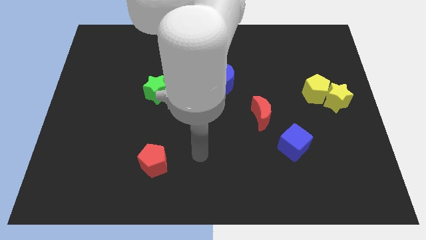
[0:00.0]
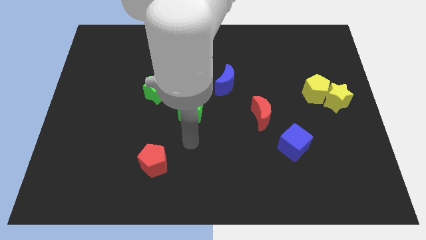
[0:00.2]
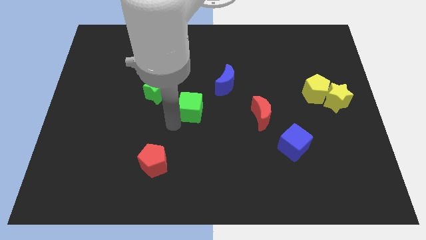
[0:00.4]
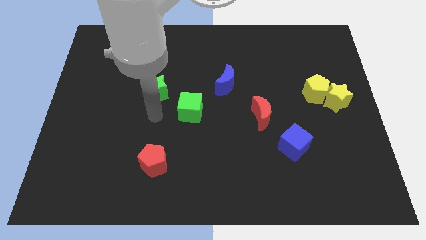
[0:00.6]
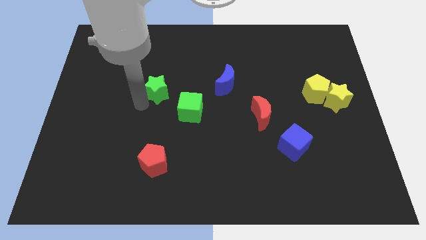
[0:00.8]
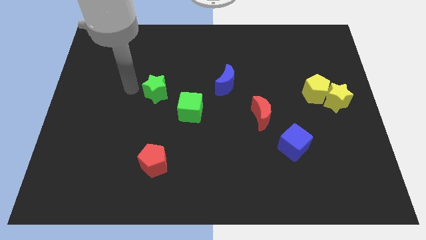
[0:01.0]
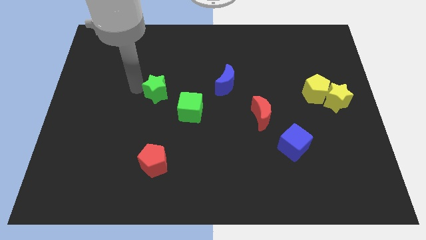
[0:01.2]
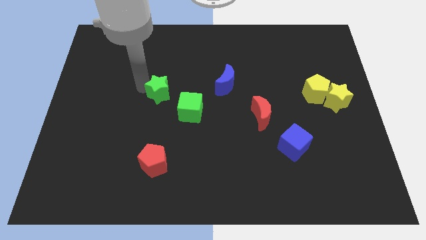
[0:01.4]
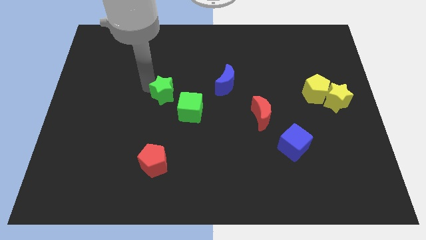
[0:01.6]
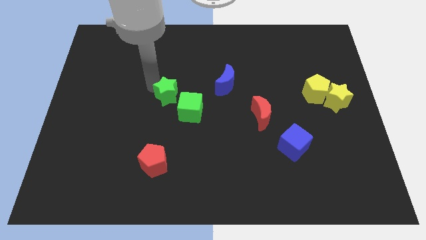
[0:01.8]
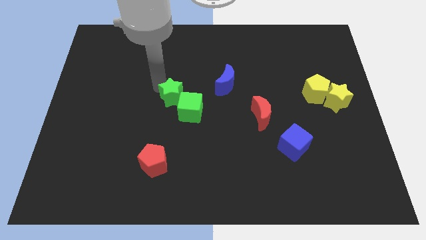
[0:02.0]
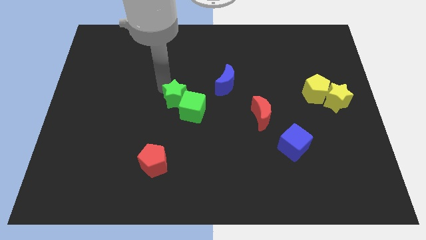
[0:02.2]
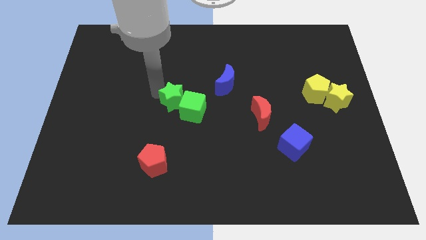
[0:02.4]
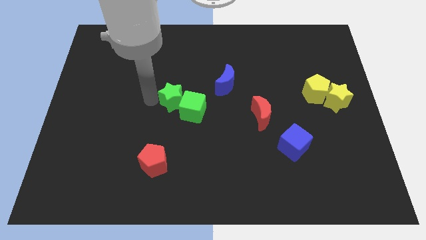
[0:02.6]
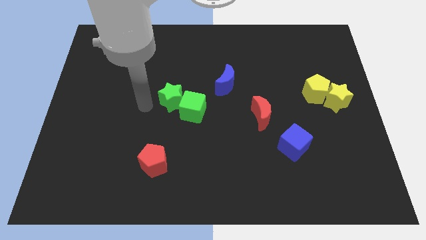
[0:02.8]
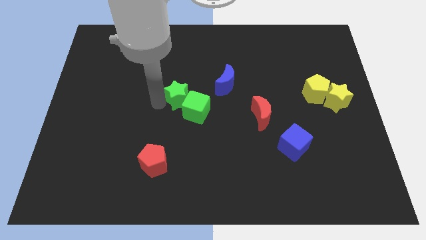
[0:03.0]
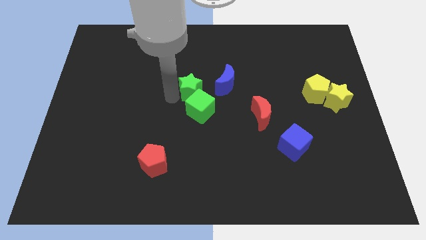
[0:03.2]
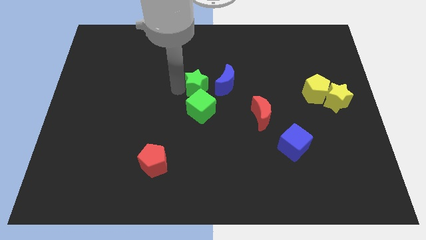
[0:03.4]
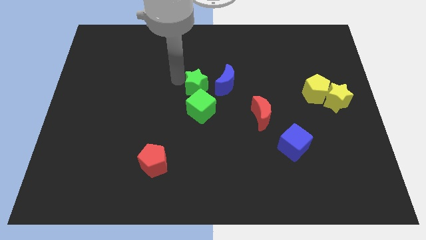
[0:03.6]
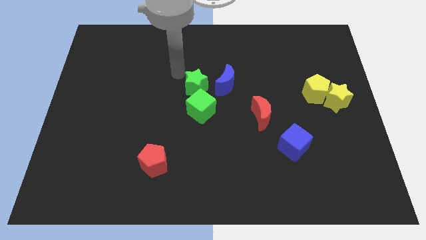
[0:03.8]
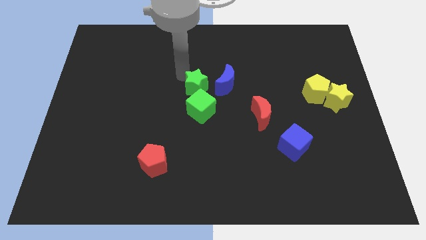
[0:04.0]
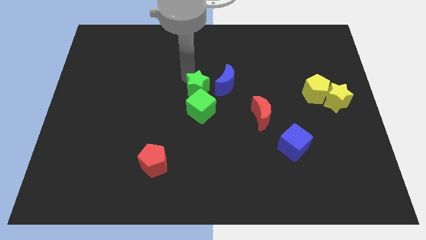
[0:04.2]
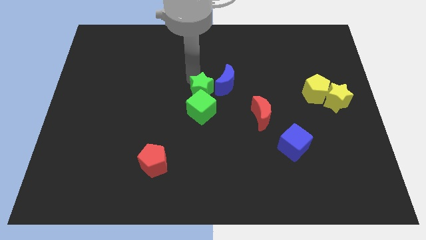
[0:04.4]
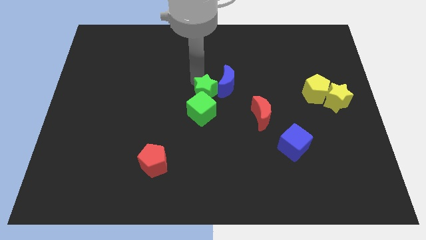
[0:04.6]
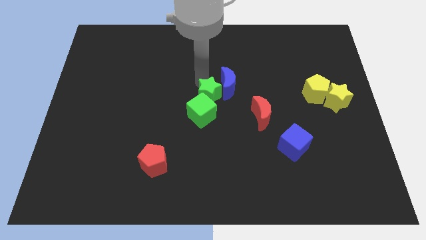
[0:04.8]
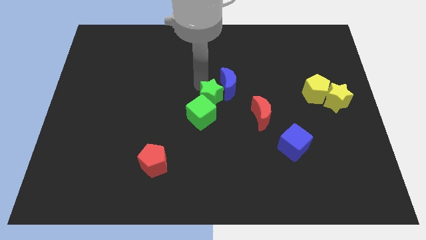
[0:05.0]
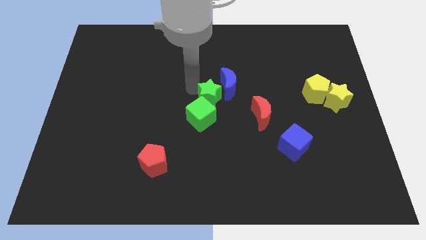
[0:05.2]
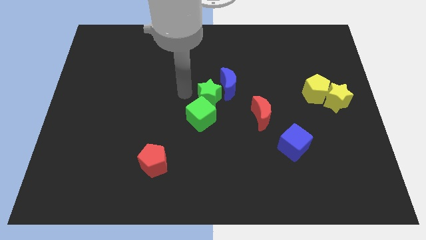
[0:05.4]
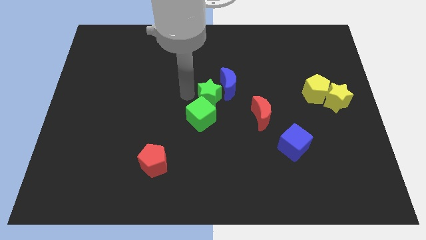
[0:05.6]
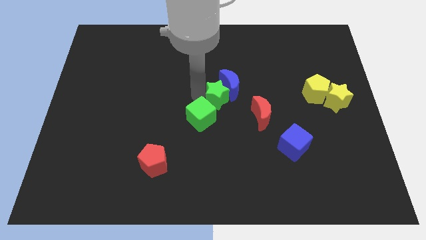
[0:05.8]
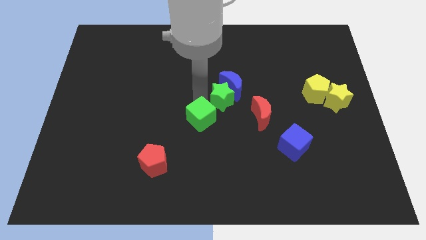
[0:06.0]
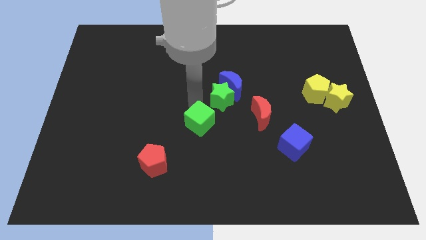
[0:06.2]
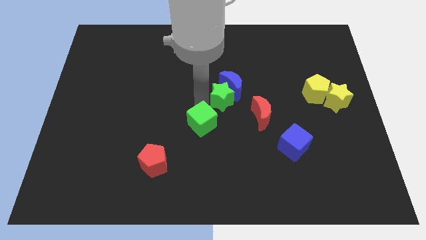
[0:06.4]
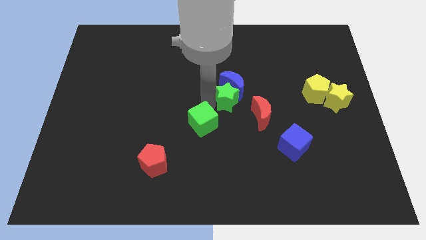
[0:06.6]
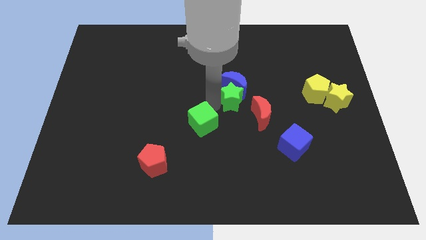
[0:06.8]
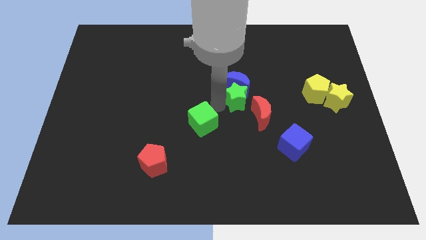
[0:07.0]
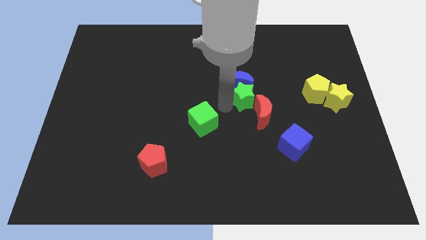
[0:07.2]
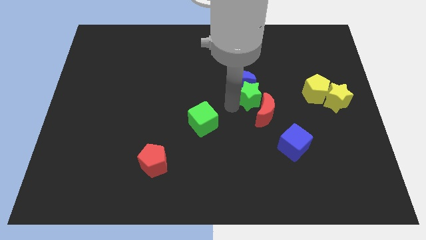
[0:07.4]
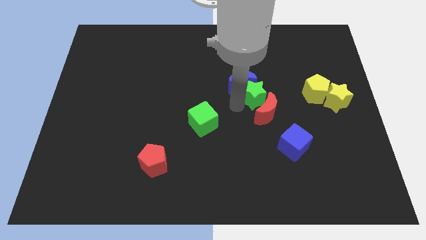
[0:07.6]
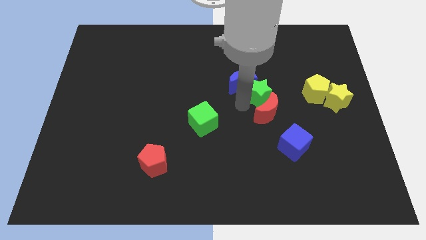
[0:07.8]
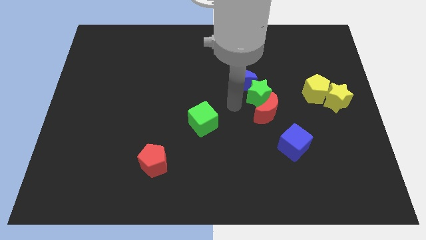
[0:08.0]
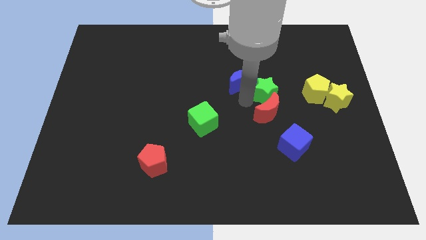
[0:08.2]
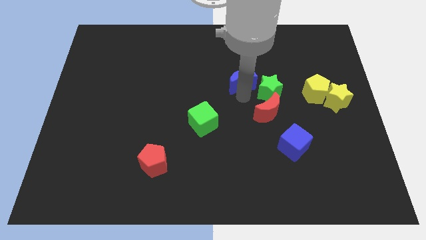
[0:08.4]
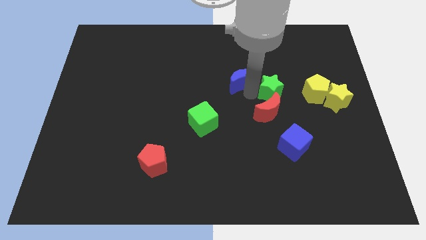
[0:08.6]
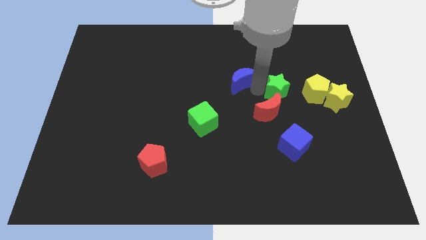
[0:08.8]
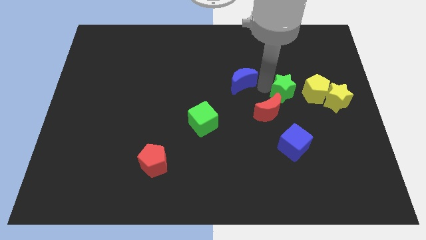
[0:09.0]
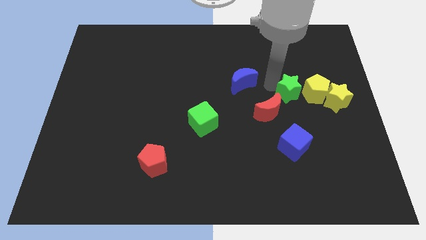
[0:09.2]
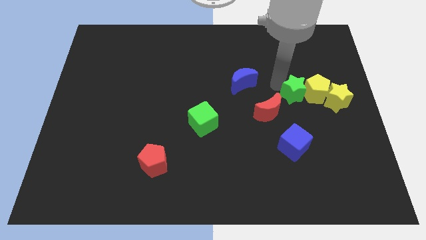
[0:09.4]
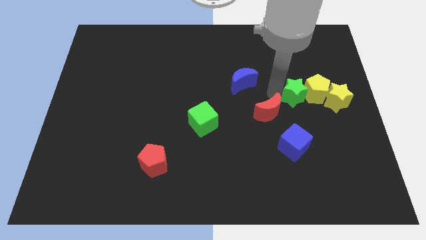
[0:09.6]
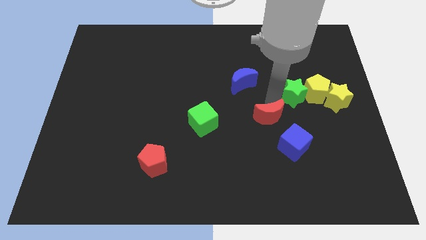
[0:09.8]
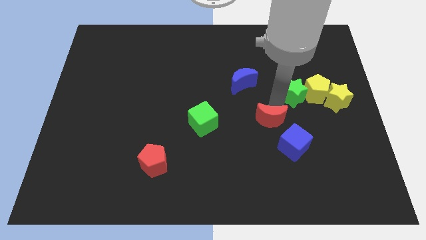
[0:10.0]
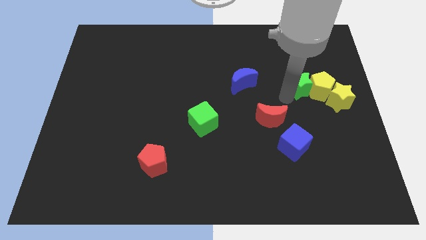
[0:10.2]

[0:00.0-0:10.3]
push the green star diagonally up and to the left of the yellow star

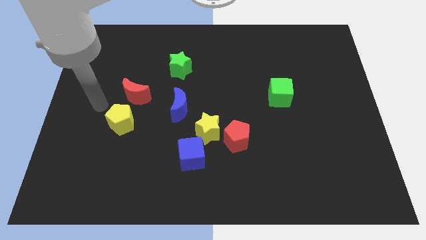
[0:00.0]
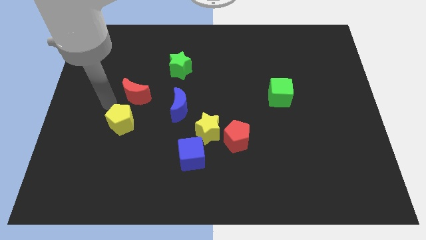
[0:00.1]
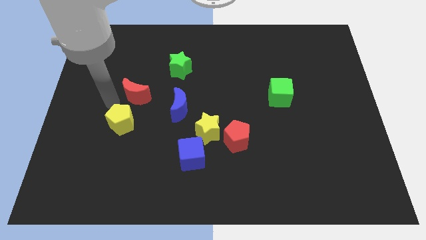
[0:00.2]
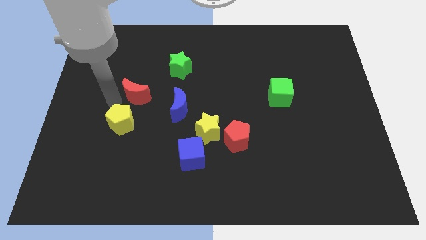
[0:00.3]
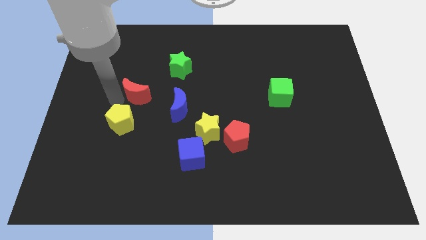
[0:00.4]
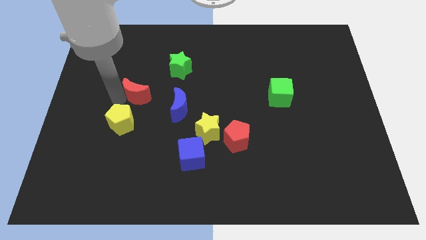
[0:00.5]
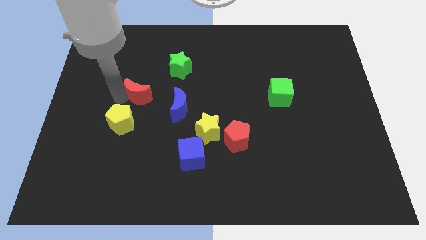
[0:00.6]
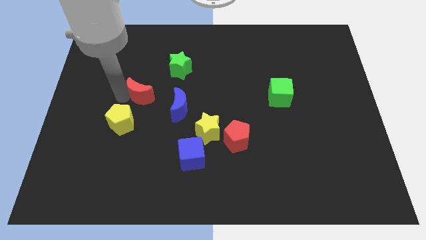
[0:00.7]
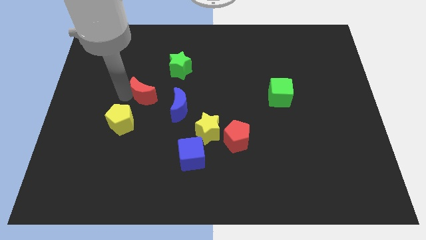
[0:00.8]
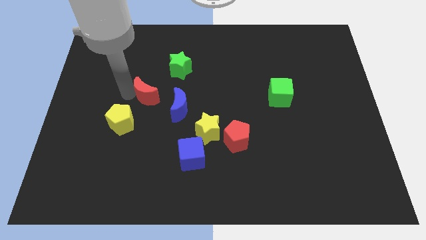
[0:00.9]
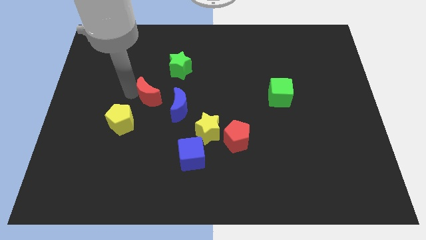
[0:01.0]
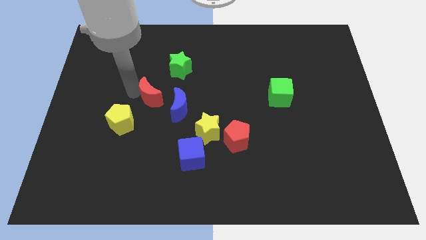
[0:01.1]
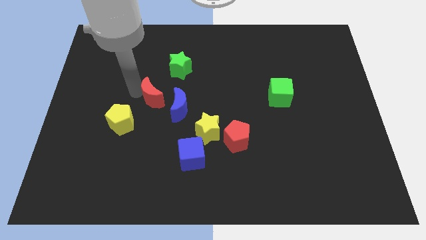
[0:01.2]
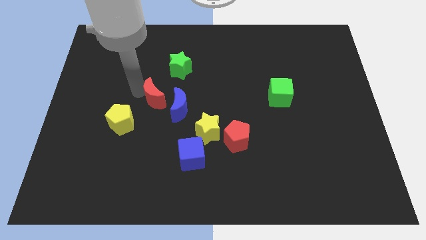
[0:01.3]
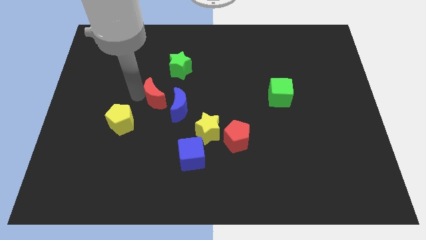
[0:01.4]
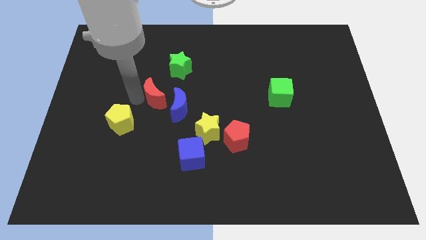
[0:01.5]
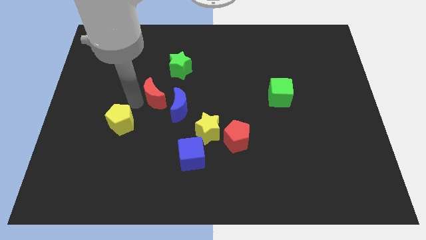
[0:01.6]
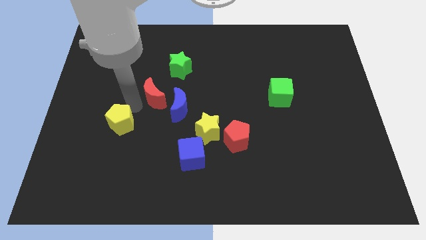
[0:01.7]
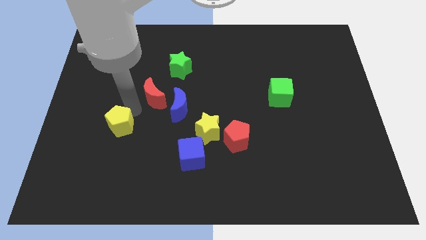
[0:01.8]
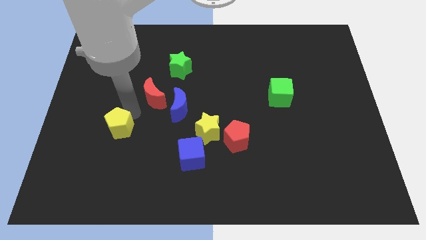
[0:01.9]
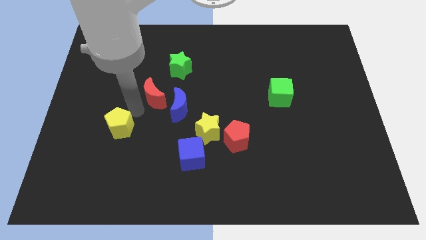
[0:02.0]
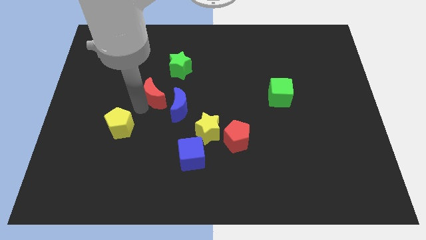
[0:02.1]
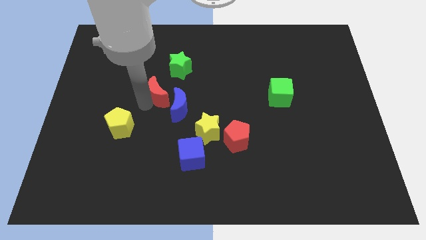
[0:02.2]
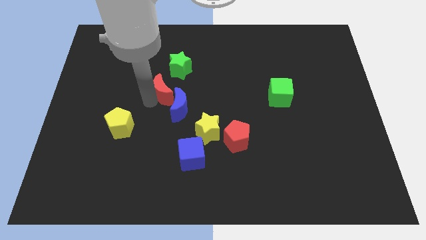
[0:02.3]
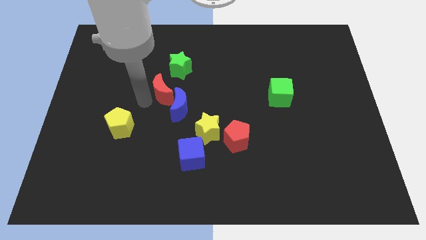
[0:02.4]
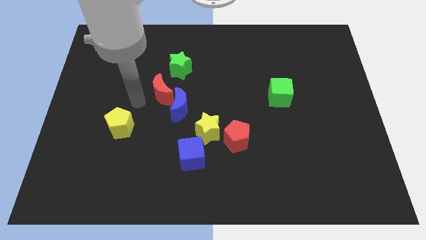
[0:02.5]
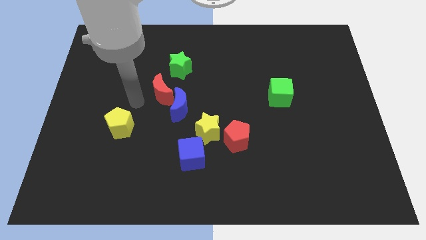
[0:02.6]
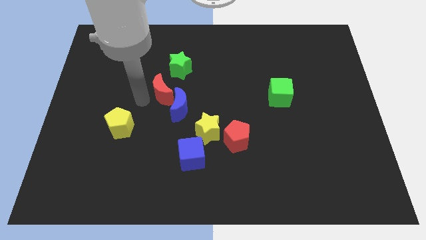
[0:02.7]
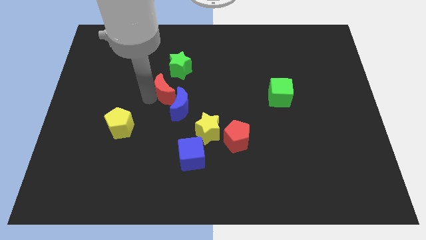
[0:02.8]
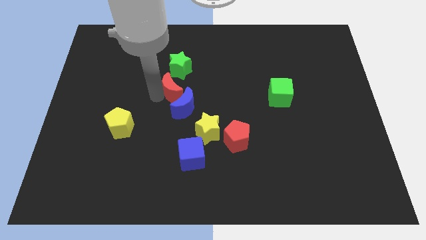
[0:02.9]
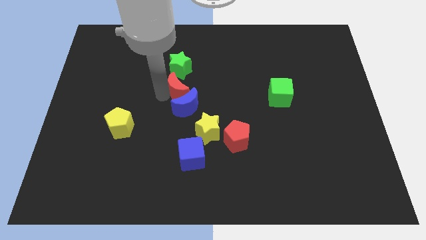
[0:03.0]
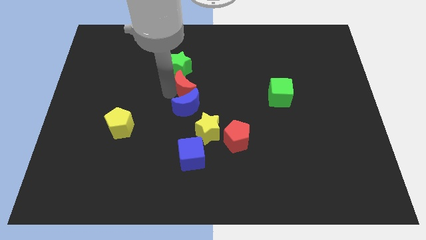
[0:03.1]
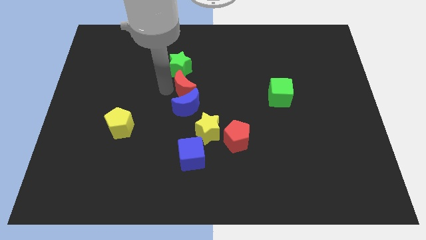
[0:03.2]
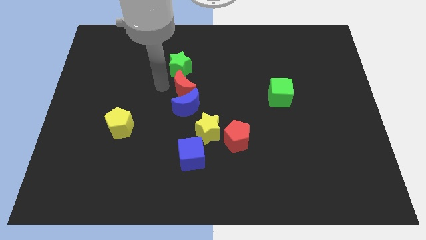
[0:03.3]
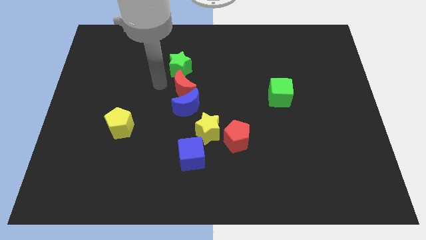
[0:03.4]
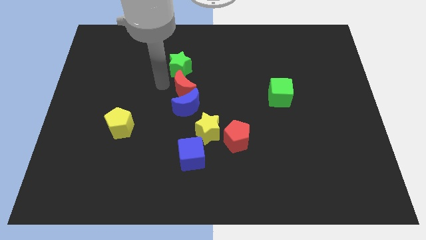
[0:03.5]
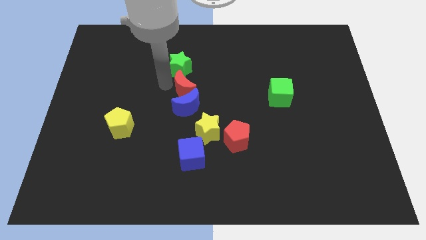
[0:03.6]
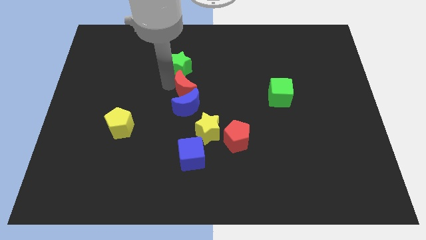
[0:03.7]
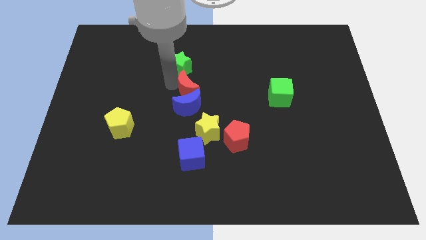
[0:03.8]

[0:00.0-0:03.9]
move the red moon to the top side of the yellow star
